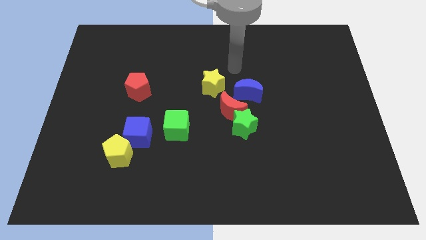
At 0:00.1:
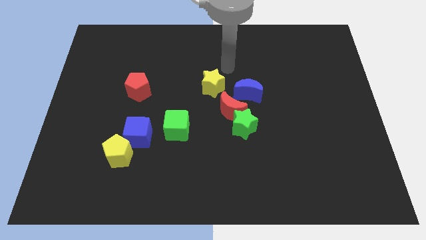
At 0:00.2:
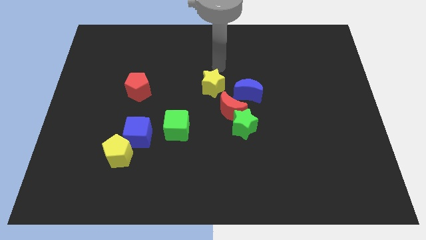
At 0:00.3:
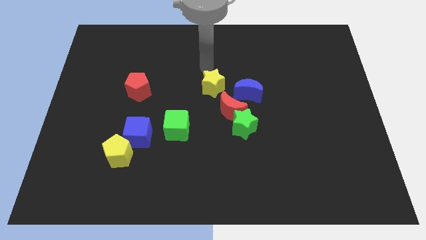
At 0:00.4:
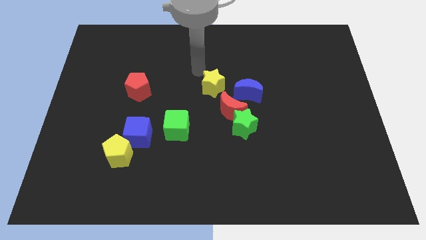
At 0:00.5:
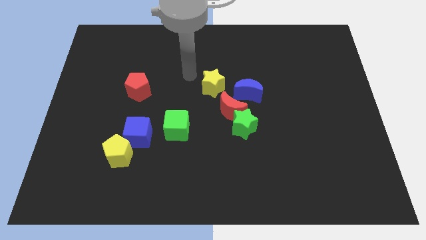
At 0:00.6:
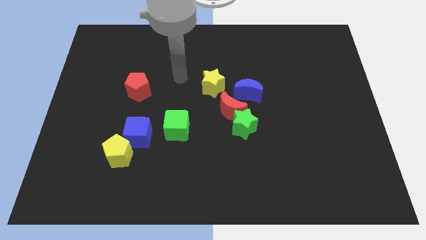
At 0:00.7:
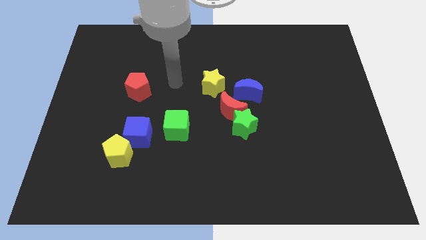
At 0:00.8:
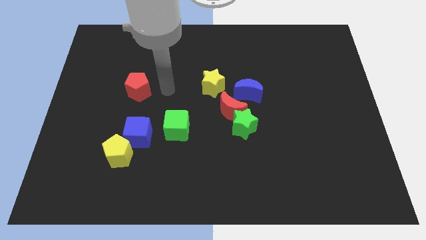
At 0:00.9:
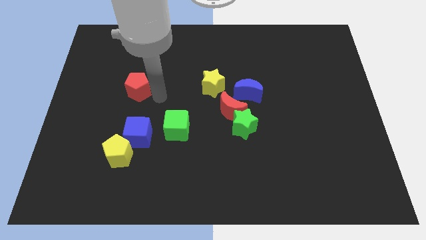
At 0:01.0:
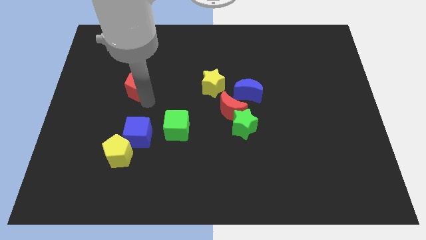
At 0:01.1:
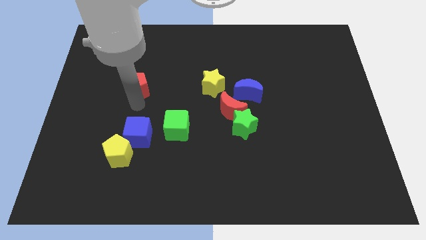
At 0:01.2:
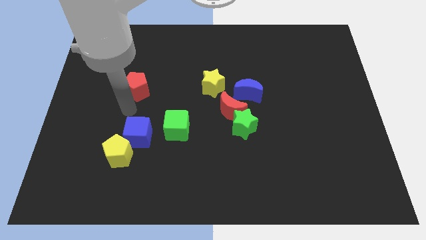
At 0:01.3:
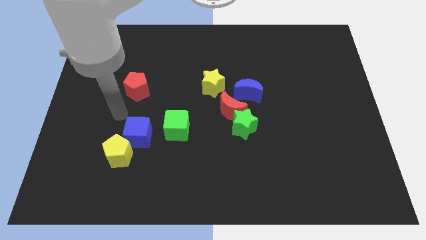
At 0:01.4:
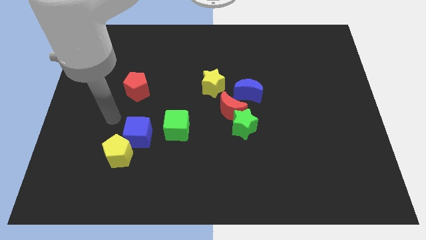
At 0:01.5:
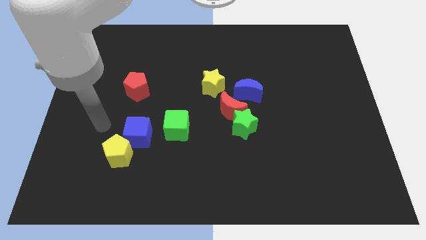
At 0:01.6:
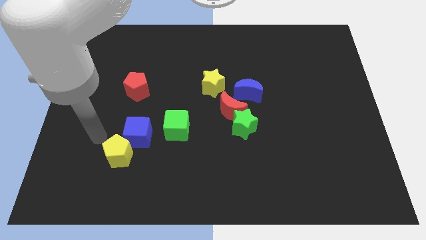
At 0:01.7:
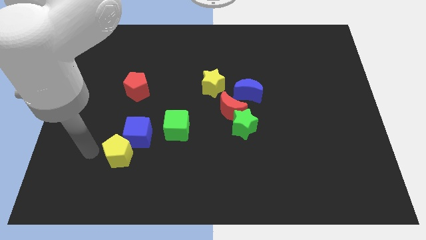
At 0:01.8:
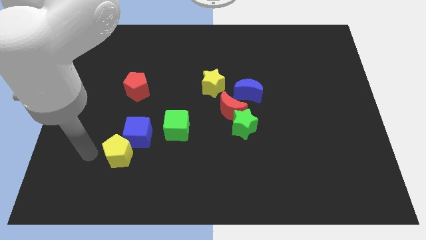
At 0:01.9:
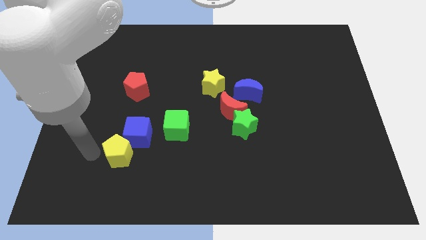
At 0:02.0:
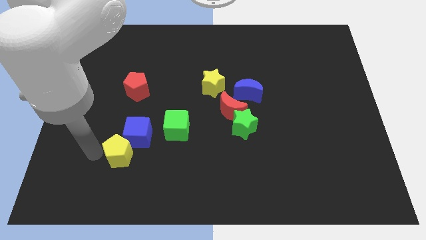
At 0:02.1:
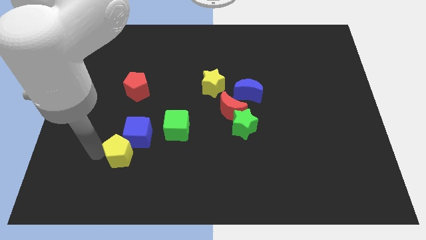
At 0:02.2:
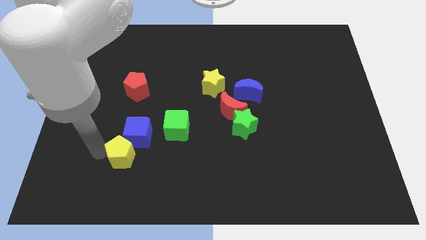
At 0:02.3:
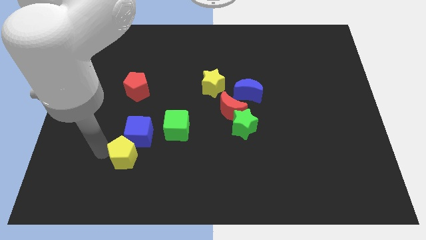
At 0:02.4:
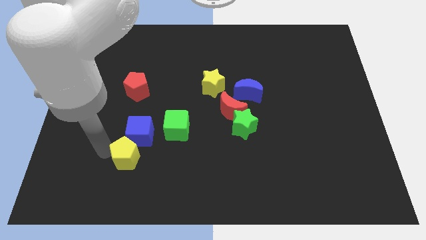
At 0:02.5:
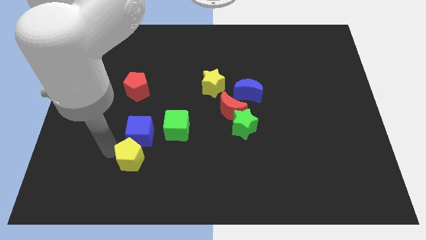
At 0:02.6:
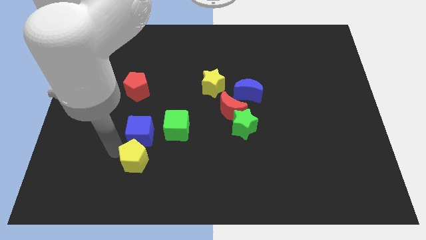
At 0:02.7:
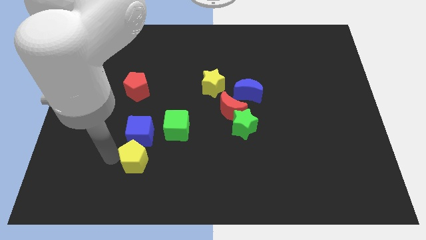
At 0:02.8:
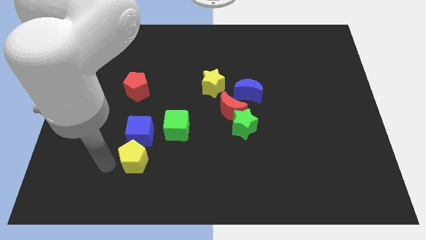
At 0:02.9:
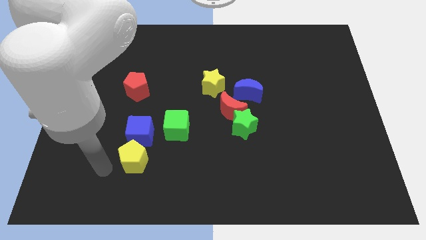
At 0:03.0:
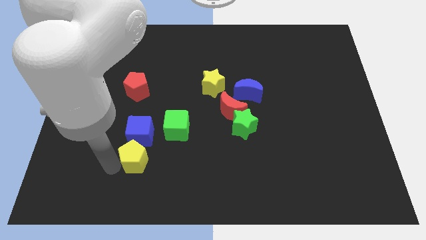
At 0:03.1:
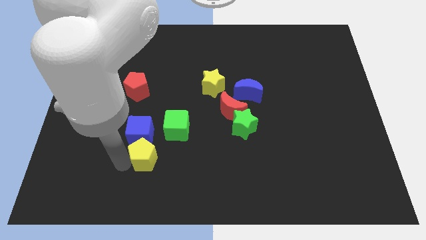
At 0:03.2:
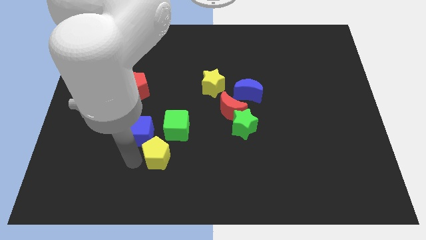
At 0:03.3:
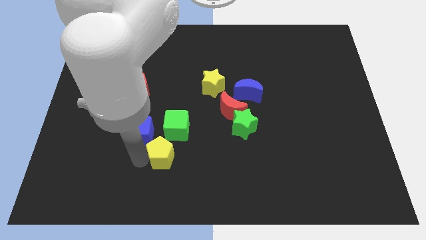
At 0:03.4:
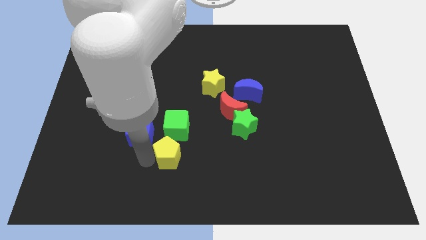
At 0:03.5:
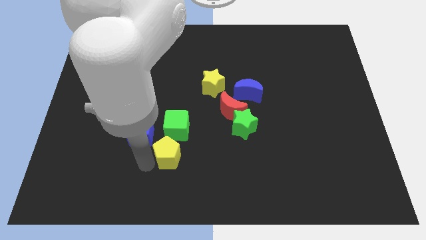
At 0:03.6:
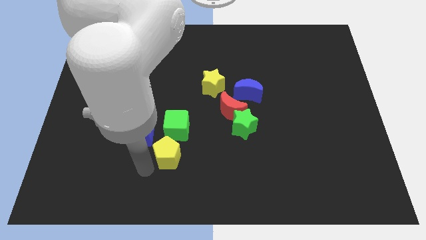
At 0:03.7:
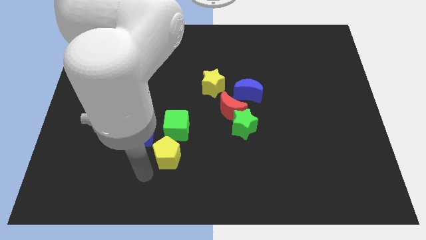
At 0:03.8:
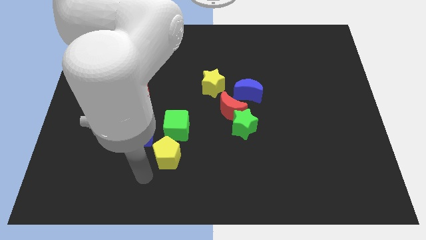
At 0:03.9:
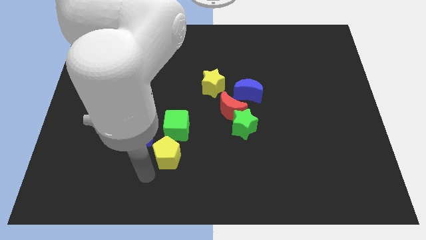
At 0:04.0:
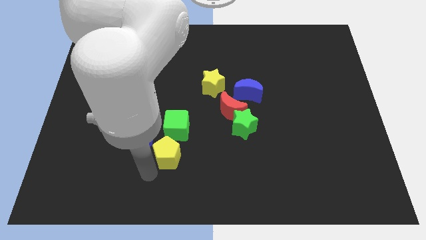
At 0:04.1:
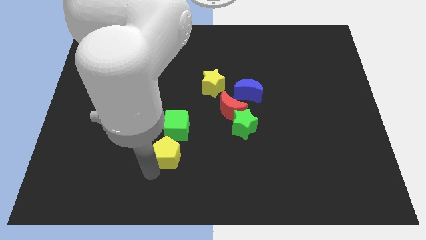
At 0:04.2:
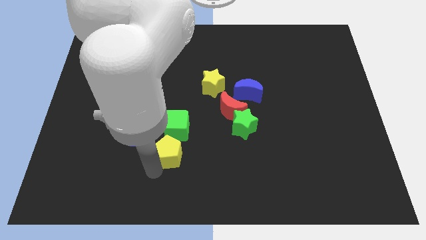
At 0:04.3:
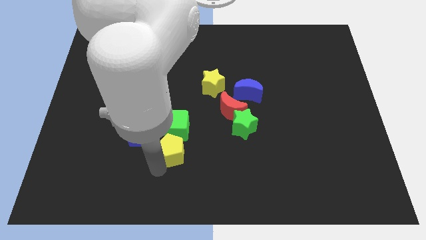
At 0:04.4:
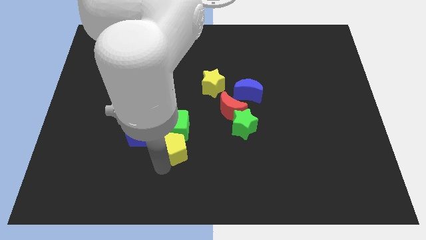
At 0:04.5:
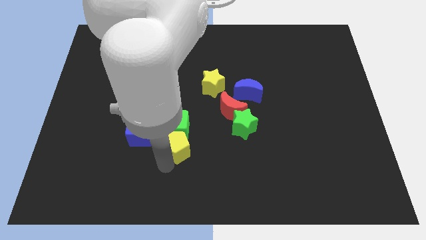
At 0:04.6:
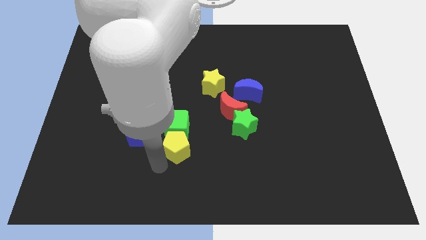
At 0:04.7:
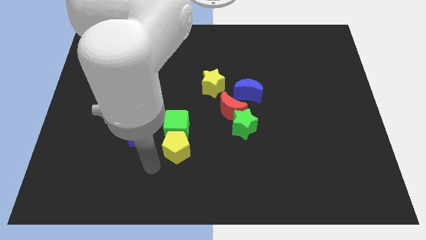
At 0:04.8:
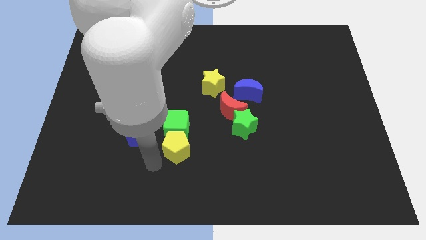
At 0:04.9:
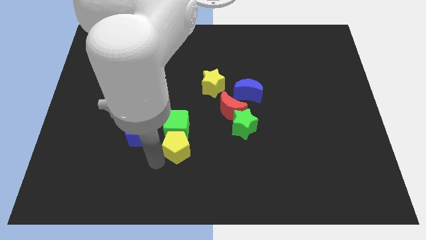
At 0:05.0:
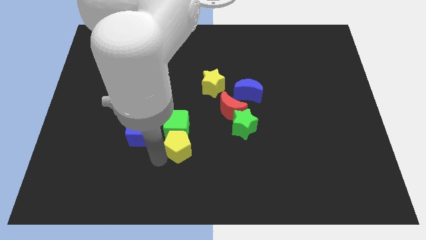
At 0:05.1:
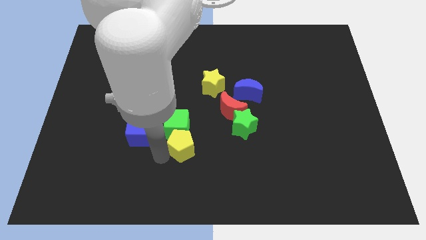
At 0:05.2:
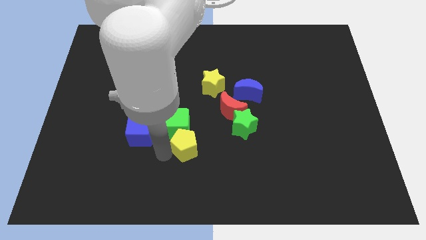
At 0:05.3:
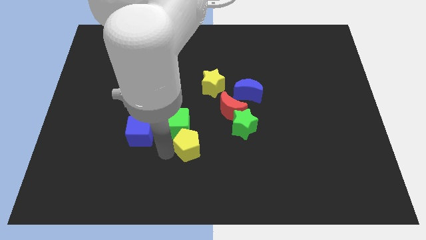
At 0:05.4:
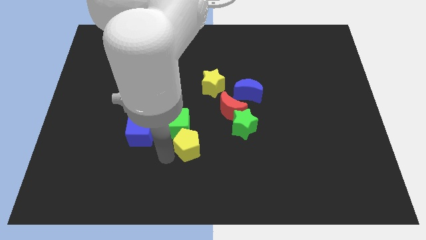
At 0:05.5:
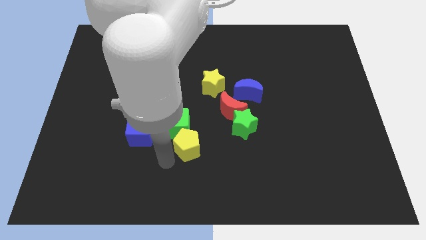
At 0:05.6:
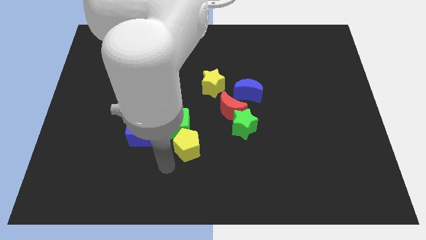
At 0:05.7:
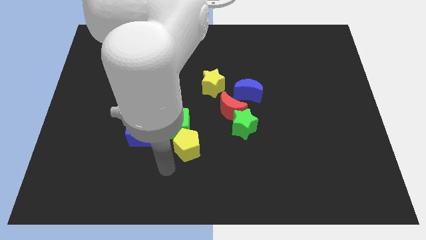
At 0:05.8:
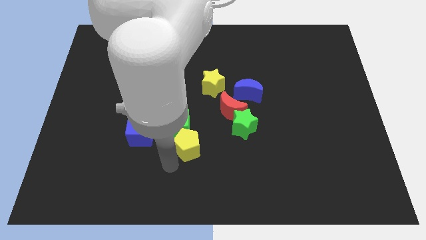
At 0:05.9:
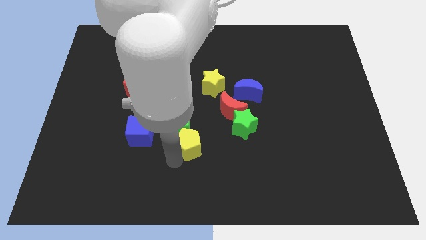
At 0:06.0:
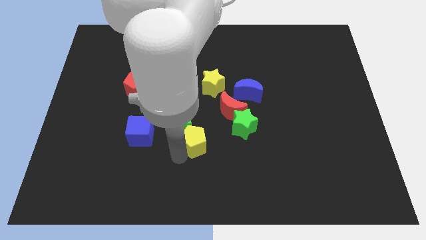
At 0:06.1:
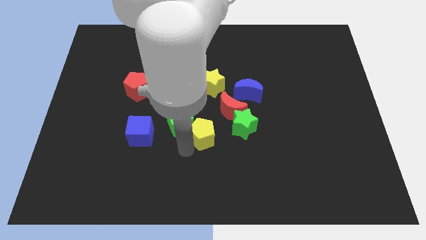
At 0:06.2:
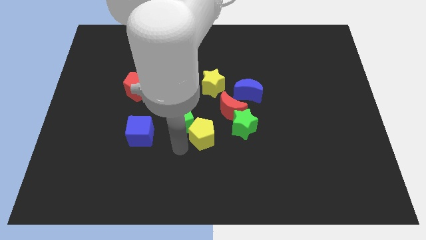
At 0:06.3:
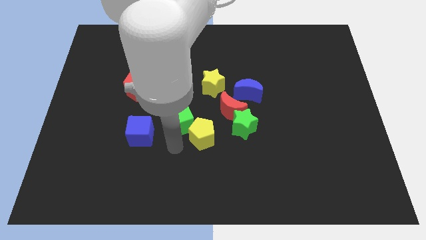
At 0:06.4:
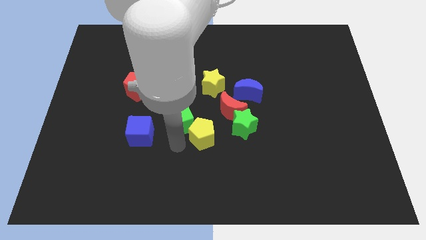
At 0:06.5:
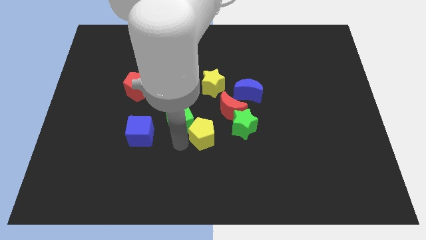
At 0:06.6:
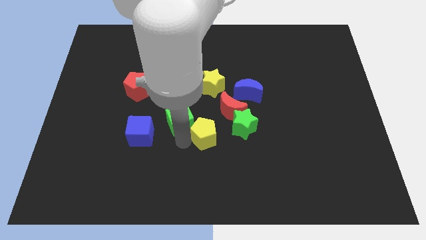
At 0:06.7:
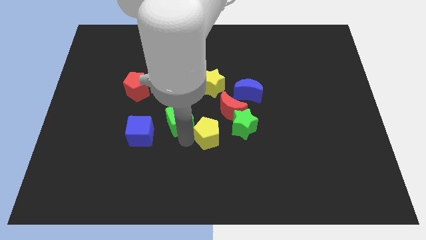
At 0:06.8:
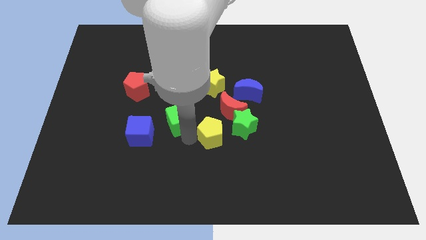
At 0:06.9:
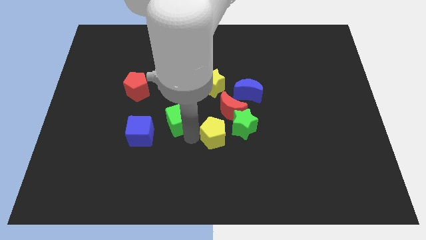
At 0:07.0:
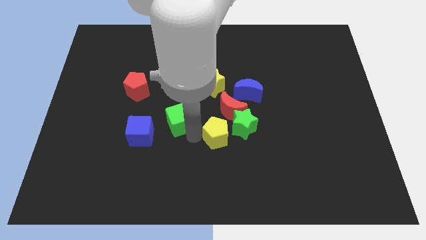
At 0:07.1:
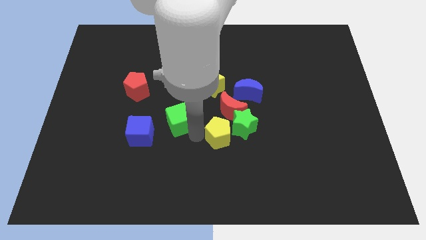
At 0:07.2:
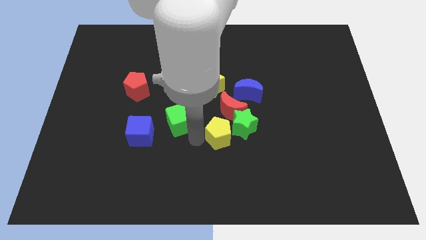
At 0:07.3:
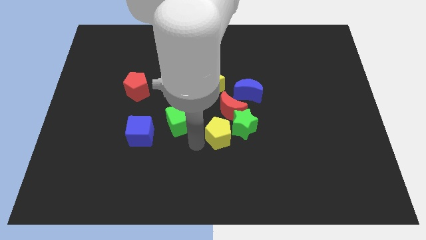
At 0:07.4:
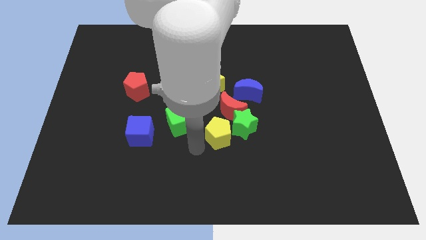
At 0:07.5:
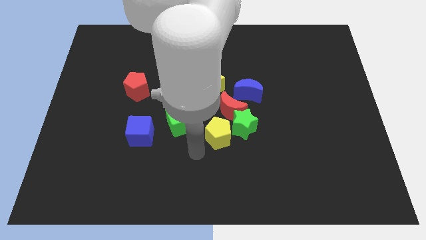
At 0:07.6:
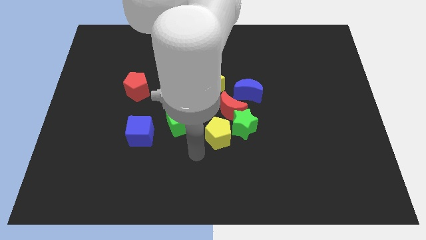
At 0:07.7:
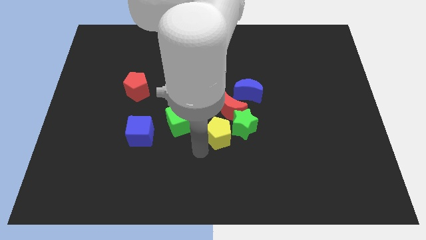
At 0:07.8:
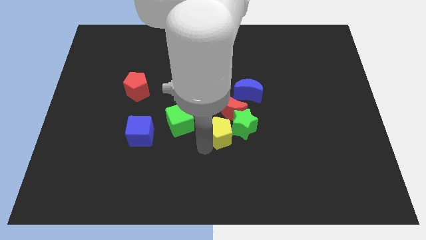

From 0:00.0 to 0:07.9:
slide the yellow pentagon close to the green star
